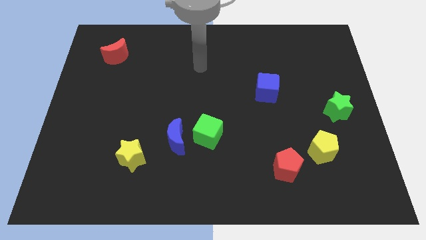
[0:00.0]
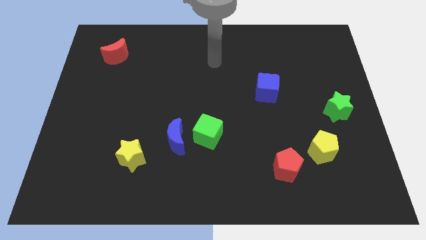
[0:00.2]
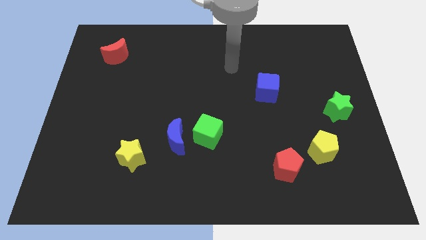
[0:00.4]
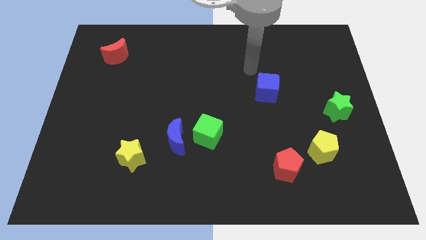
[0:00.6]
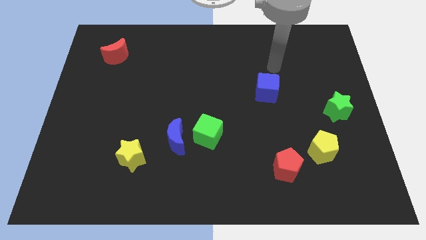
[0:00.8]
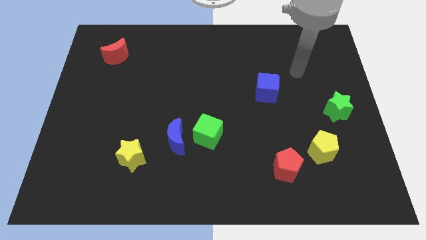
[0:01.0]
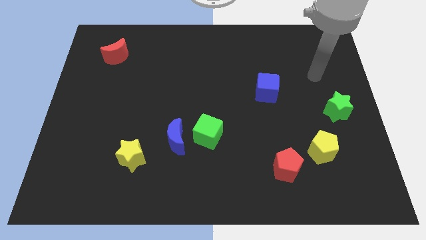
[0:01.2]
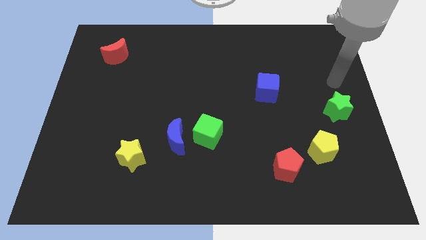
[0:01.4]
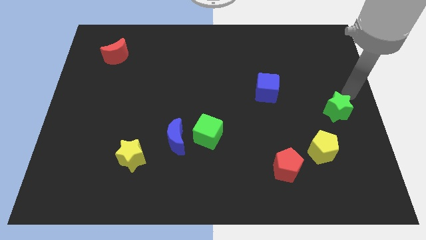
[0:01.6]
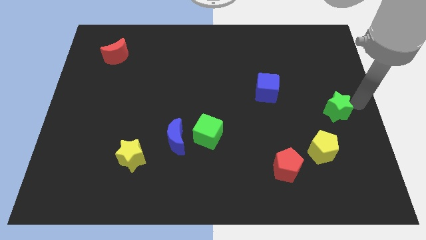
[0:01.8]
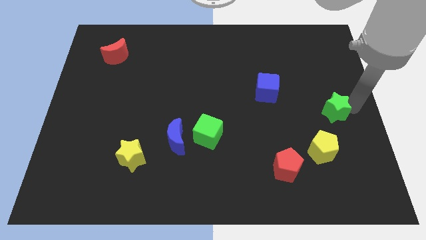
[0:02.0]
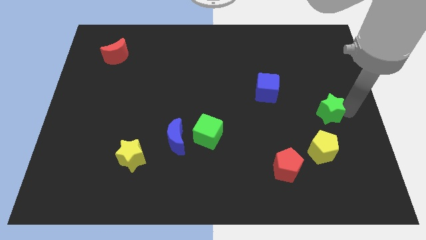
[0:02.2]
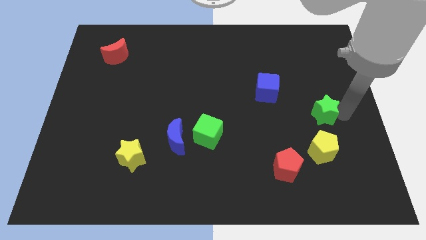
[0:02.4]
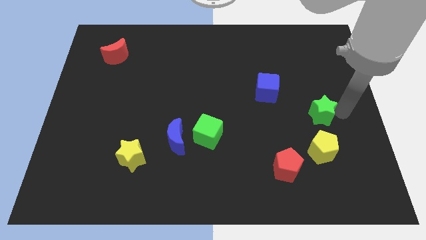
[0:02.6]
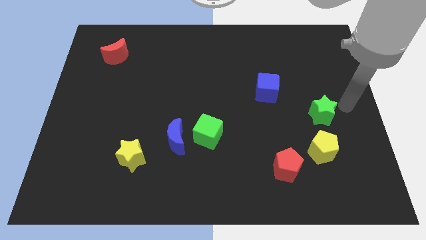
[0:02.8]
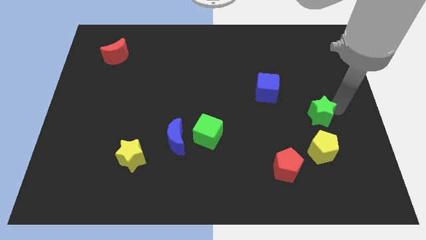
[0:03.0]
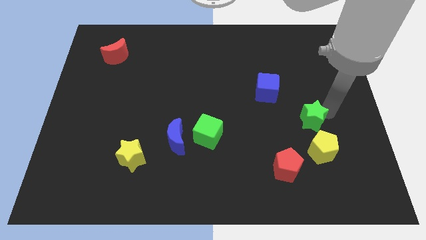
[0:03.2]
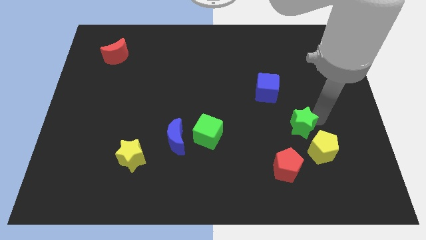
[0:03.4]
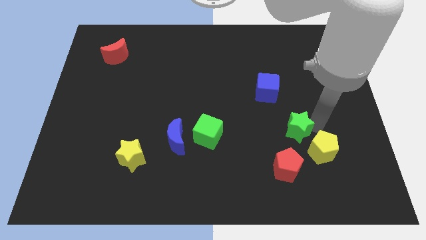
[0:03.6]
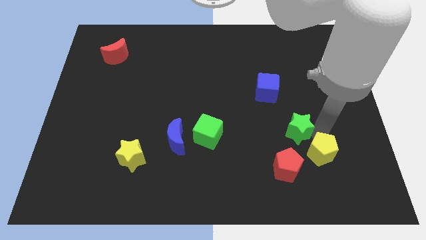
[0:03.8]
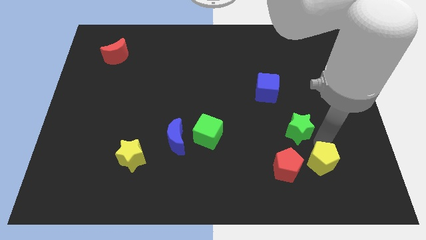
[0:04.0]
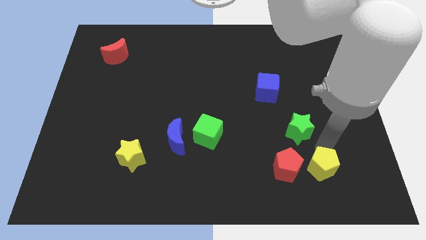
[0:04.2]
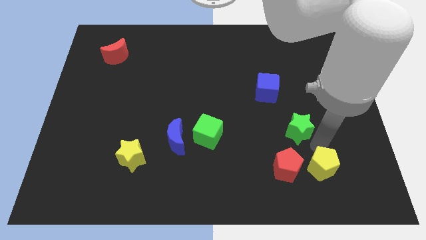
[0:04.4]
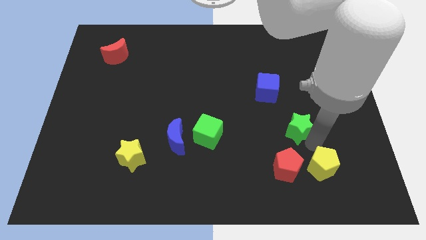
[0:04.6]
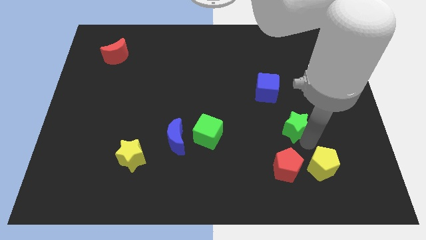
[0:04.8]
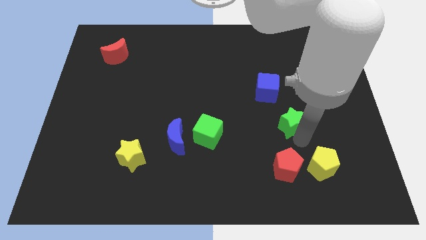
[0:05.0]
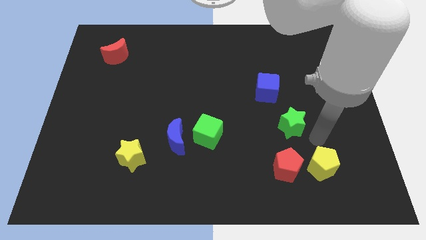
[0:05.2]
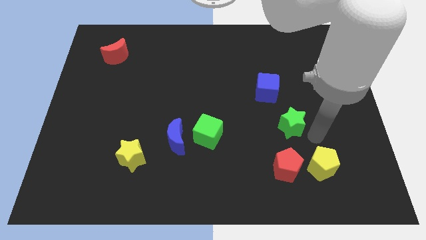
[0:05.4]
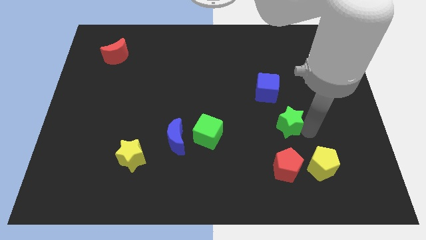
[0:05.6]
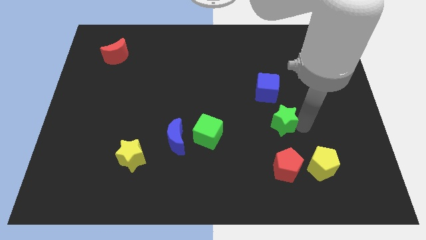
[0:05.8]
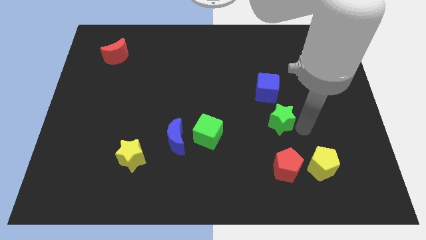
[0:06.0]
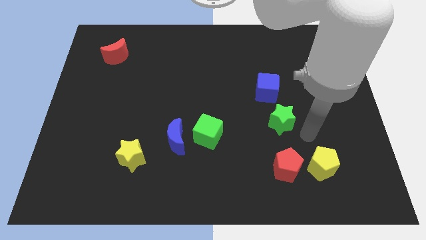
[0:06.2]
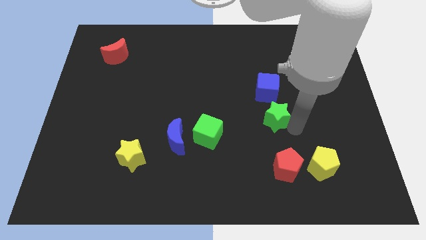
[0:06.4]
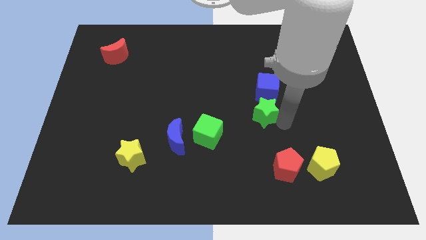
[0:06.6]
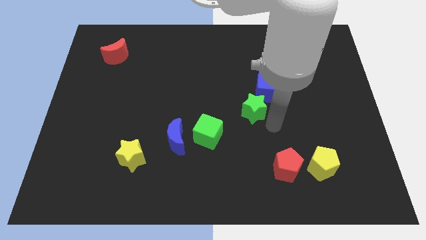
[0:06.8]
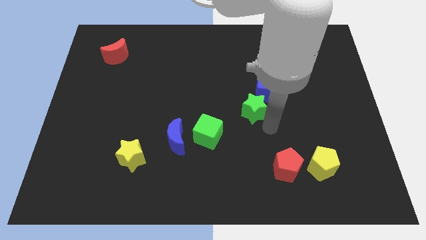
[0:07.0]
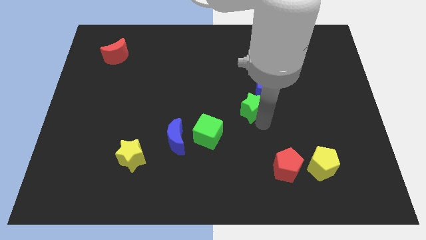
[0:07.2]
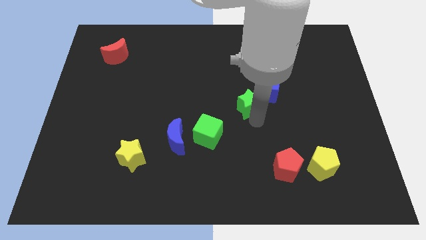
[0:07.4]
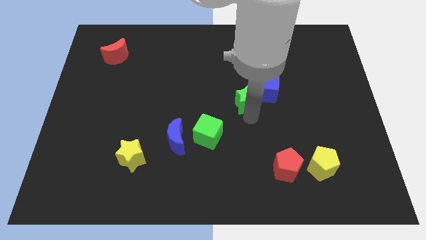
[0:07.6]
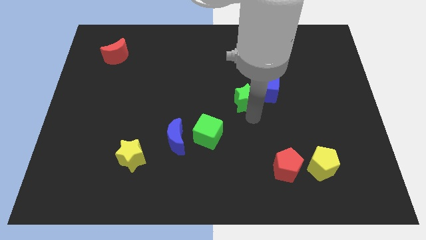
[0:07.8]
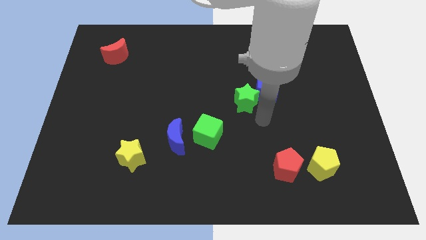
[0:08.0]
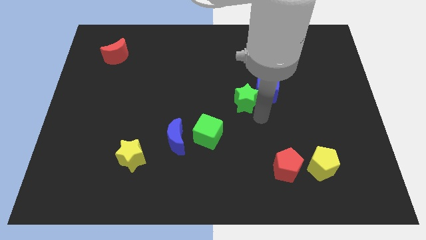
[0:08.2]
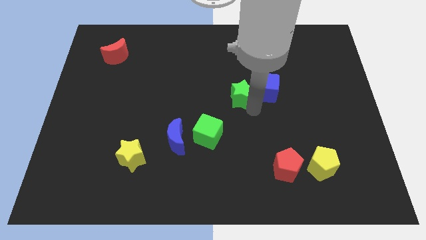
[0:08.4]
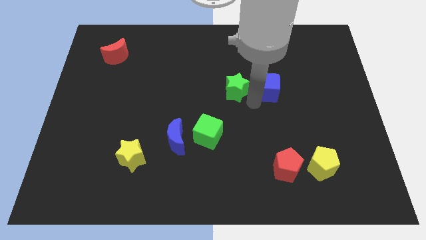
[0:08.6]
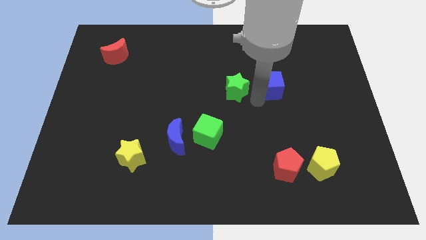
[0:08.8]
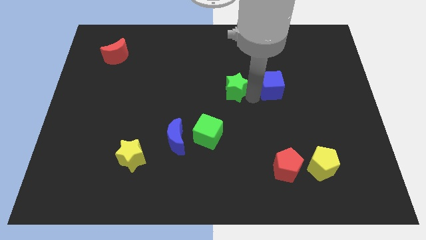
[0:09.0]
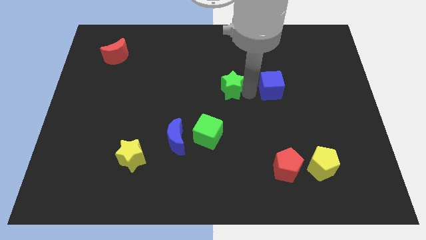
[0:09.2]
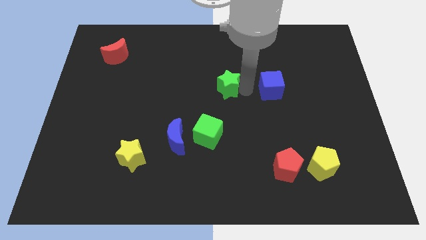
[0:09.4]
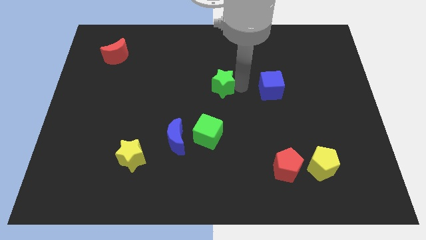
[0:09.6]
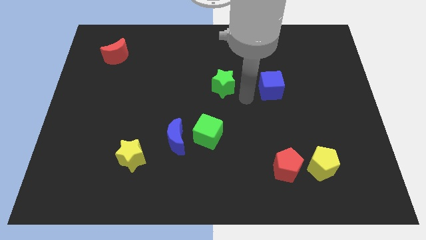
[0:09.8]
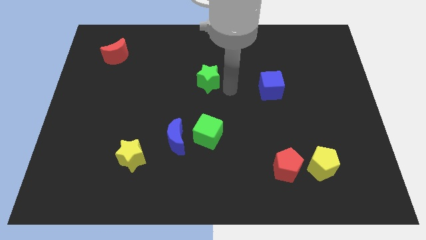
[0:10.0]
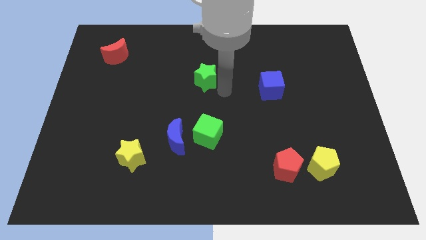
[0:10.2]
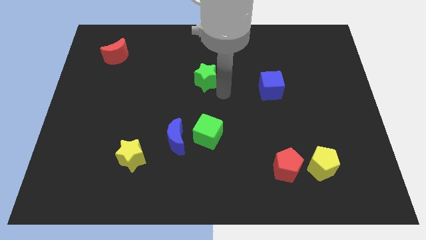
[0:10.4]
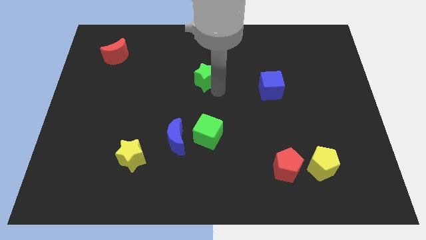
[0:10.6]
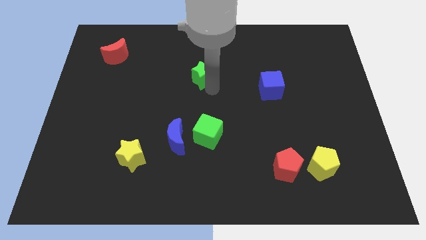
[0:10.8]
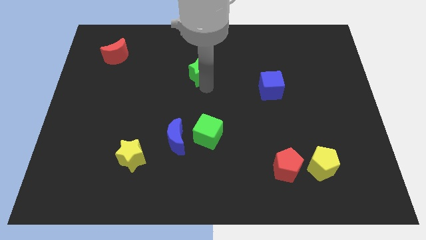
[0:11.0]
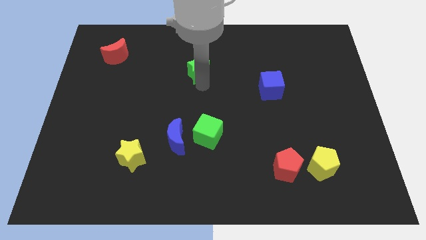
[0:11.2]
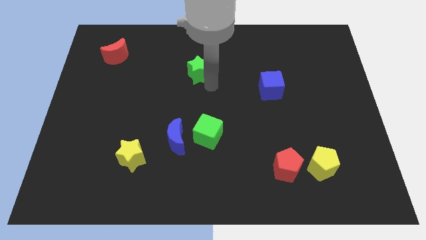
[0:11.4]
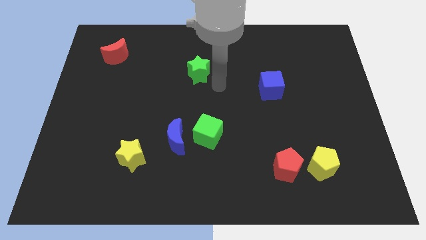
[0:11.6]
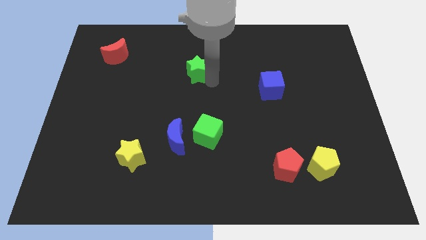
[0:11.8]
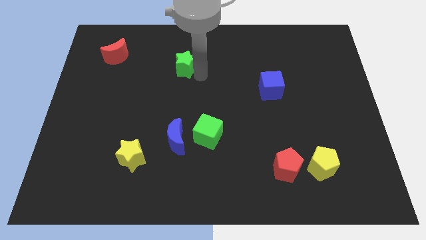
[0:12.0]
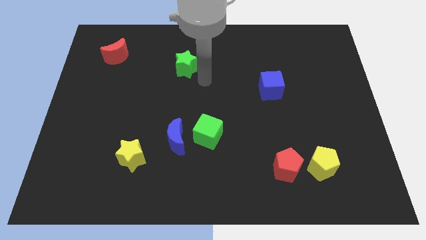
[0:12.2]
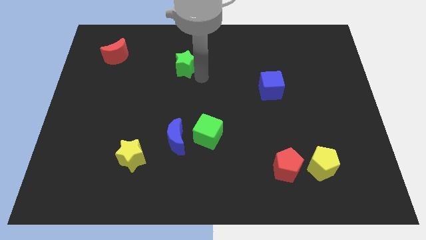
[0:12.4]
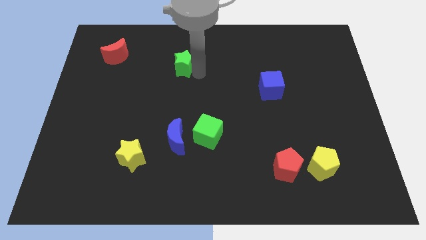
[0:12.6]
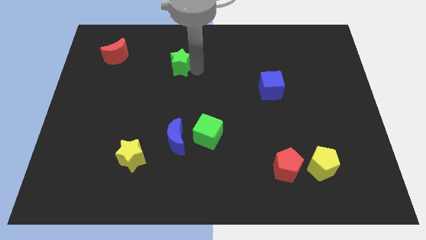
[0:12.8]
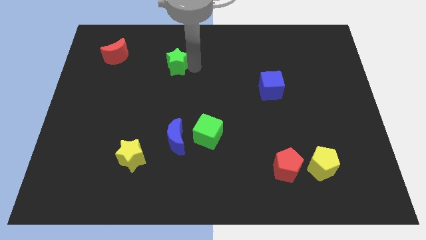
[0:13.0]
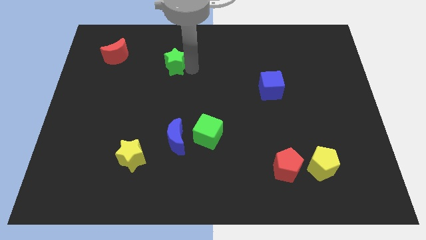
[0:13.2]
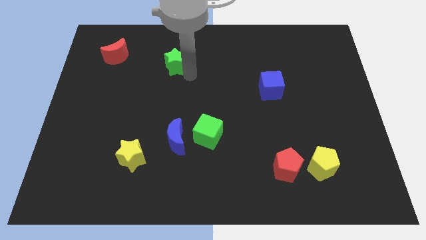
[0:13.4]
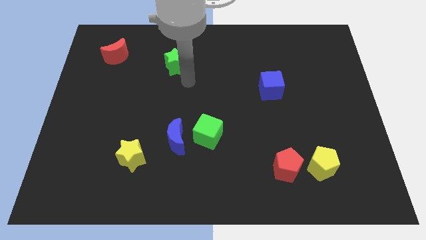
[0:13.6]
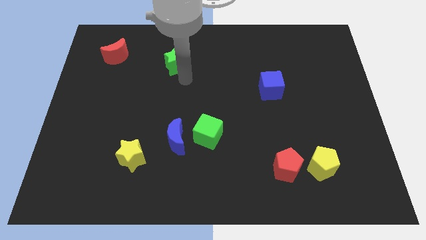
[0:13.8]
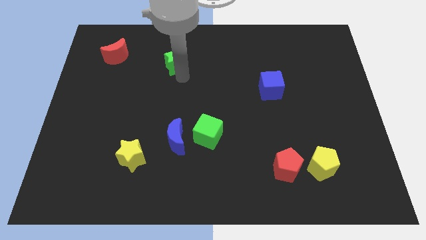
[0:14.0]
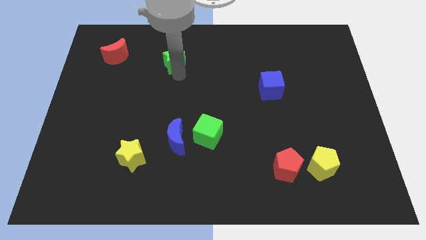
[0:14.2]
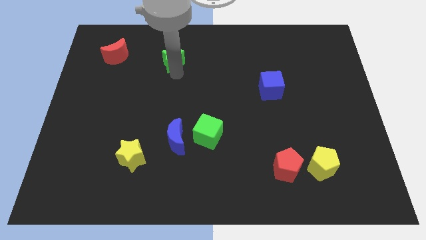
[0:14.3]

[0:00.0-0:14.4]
move the green star just right of the red moon

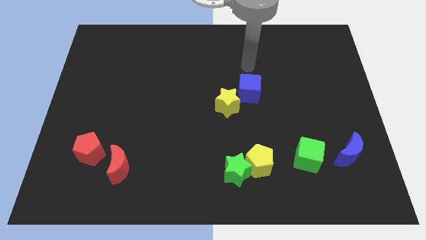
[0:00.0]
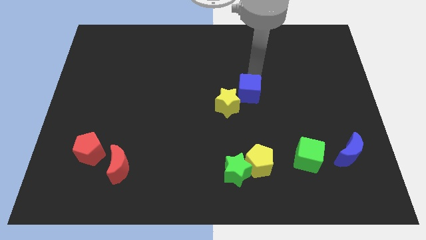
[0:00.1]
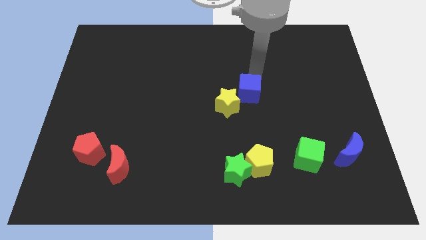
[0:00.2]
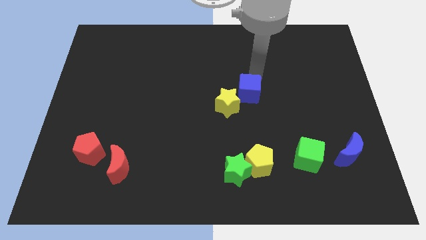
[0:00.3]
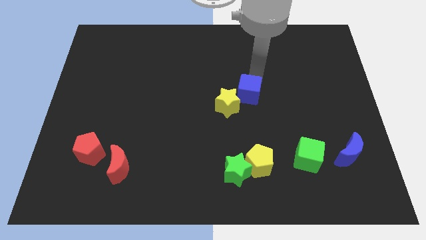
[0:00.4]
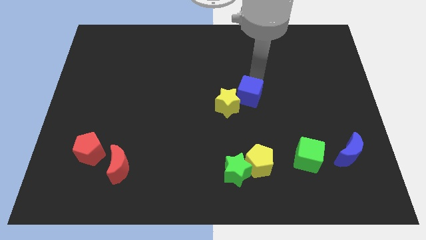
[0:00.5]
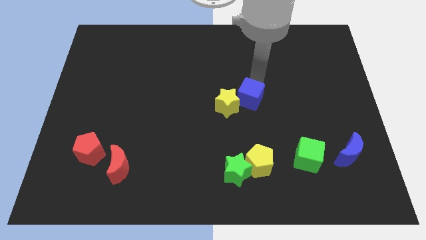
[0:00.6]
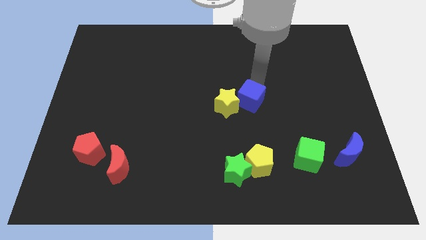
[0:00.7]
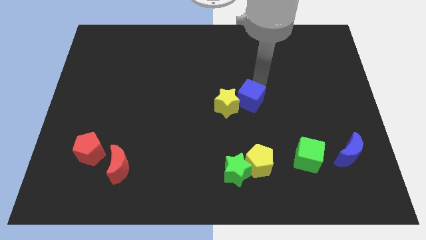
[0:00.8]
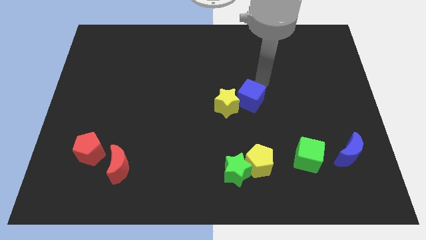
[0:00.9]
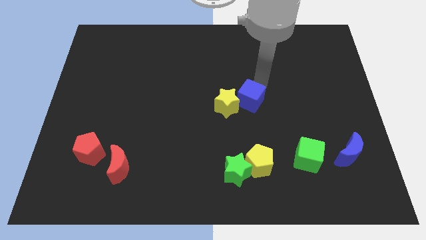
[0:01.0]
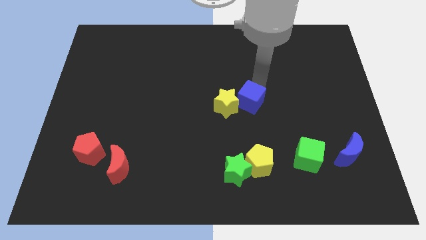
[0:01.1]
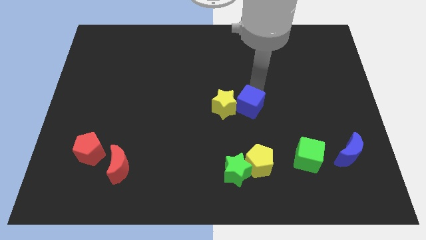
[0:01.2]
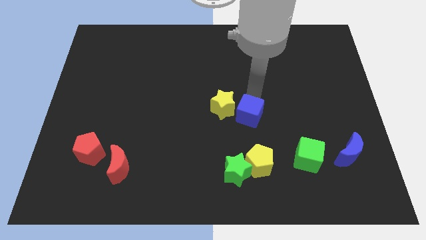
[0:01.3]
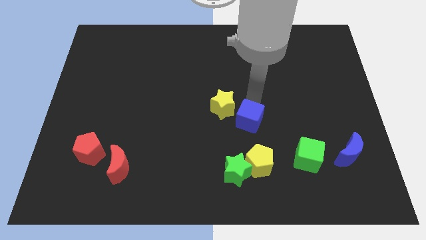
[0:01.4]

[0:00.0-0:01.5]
put the blue cube to the top of the green star
